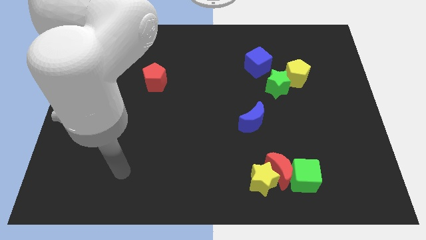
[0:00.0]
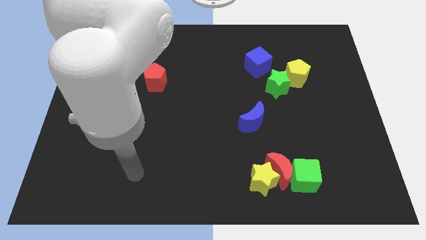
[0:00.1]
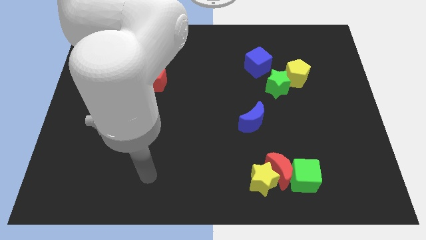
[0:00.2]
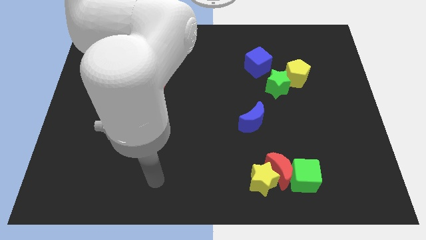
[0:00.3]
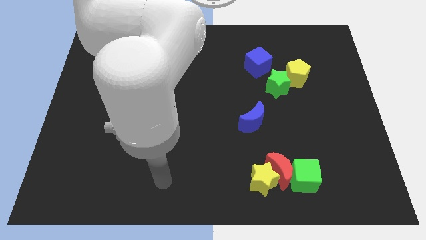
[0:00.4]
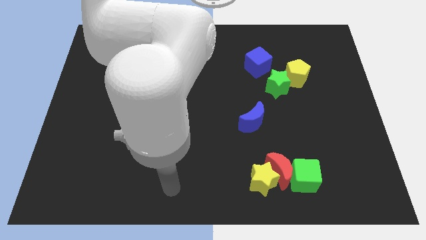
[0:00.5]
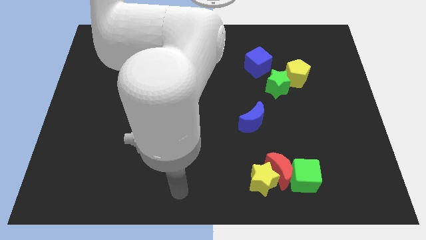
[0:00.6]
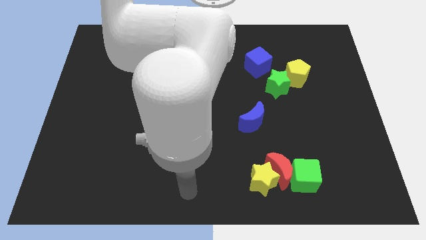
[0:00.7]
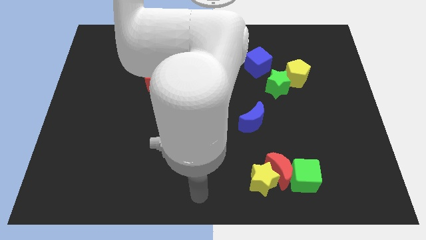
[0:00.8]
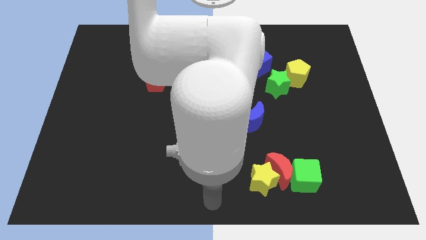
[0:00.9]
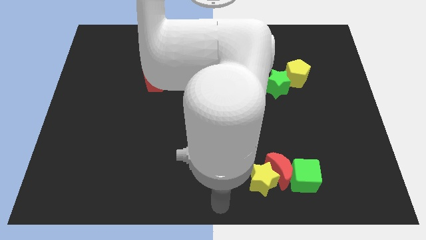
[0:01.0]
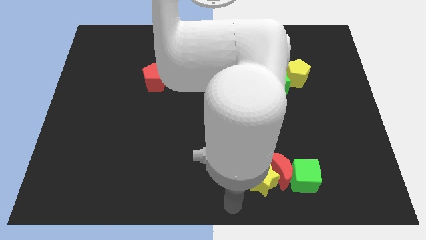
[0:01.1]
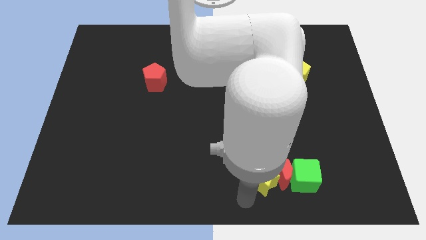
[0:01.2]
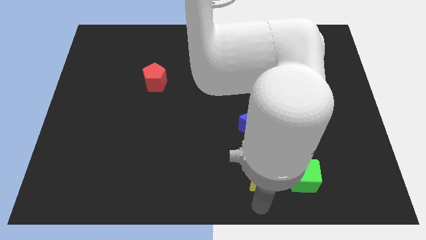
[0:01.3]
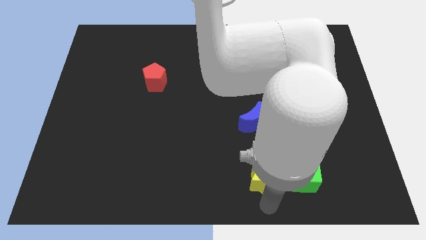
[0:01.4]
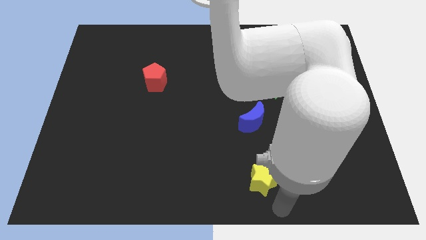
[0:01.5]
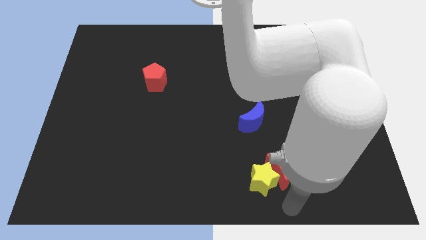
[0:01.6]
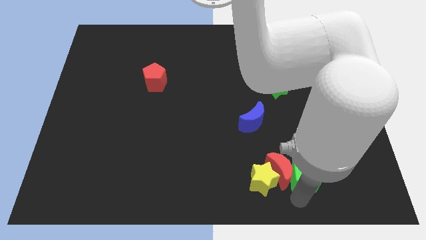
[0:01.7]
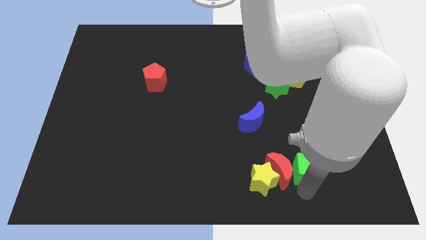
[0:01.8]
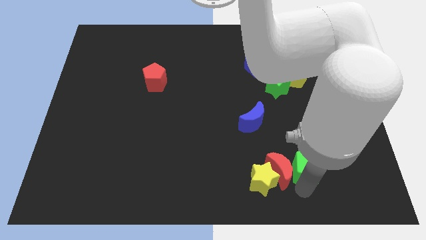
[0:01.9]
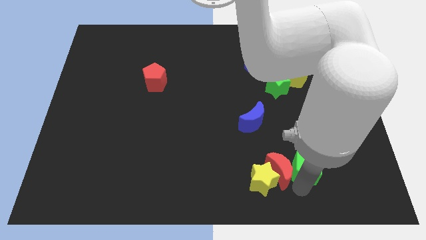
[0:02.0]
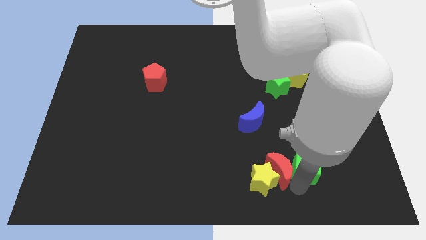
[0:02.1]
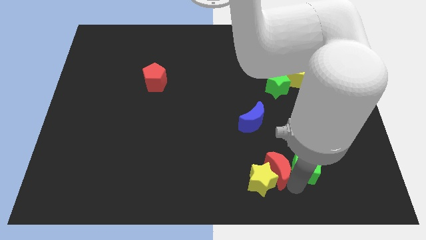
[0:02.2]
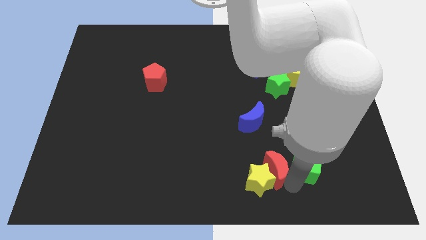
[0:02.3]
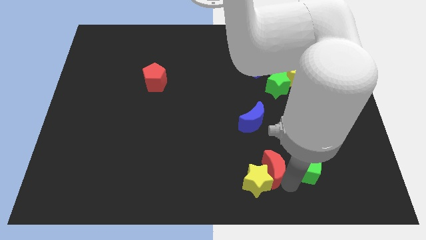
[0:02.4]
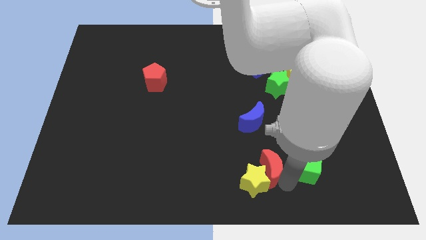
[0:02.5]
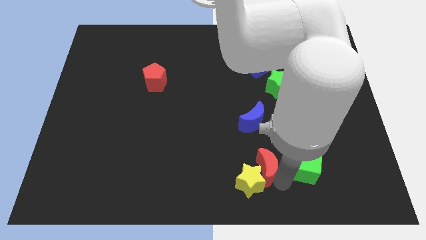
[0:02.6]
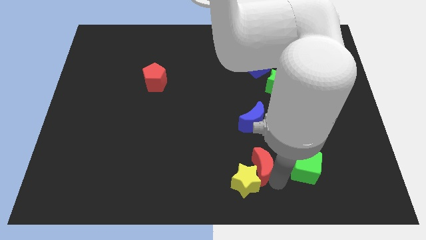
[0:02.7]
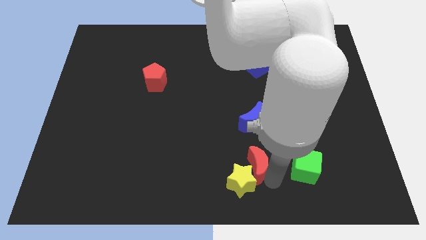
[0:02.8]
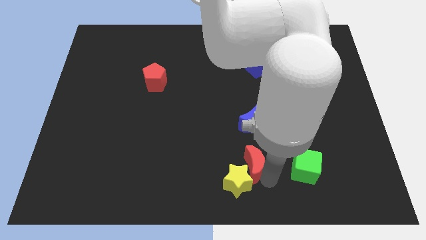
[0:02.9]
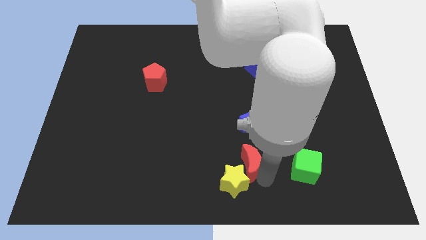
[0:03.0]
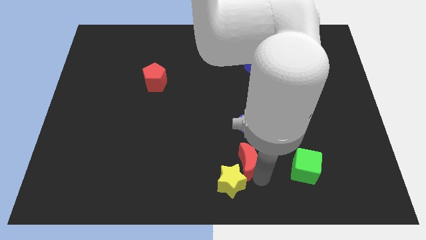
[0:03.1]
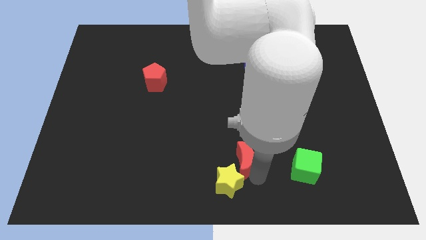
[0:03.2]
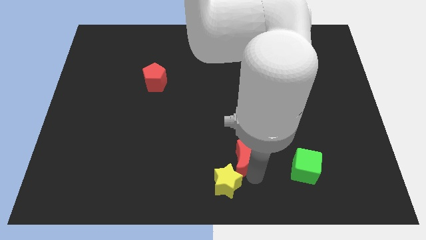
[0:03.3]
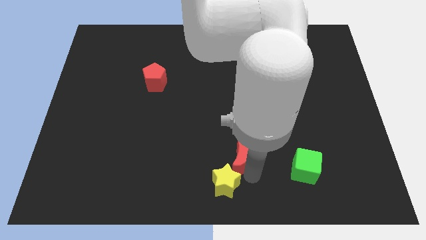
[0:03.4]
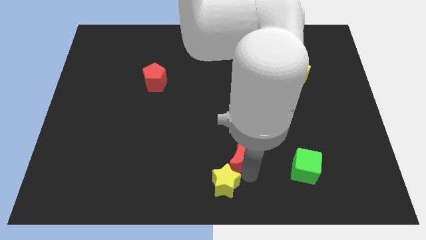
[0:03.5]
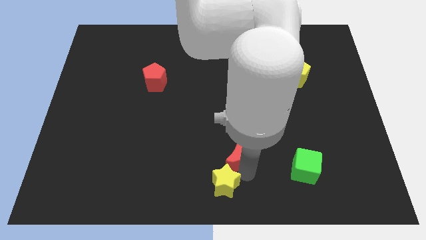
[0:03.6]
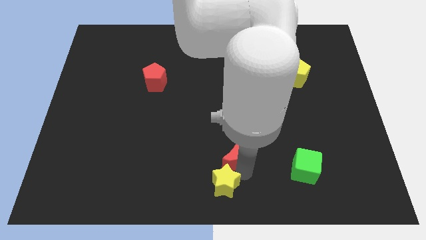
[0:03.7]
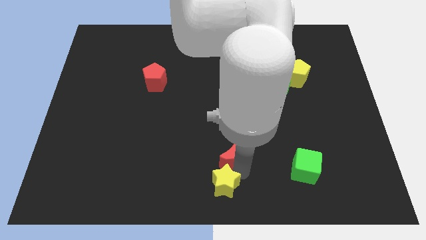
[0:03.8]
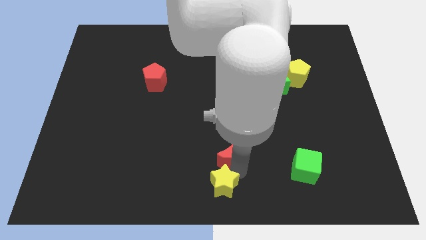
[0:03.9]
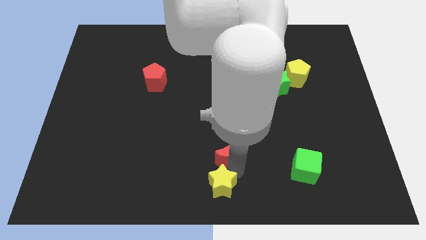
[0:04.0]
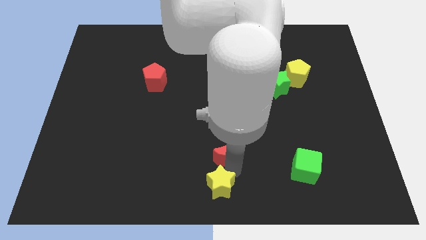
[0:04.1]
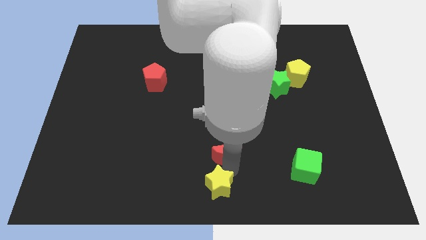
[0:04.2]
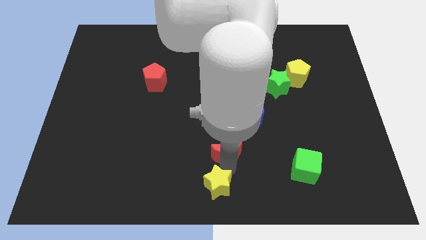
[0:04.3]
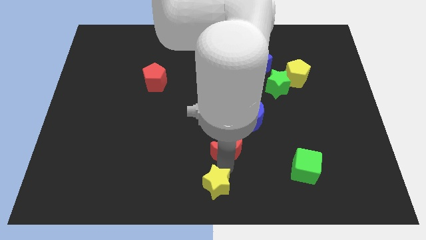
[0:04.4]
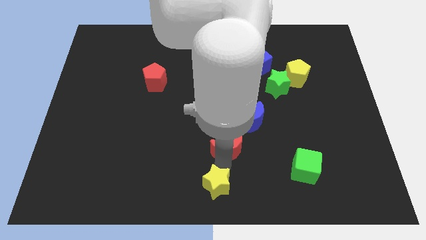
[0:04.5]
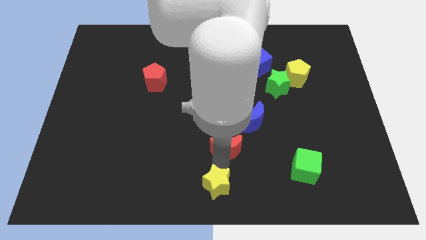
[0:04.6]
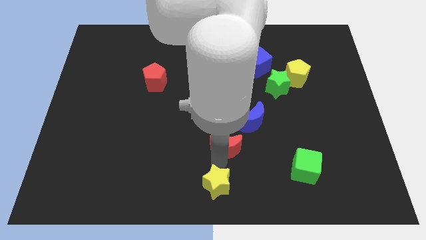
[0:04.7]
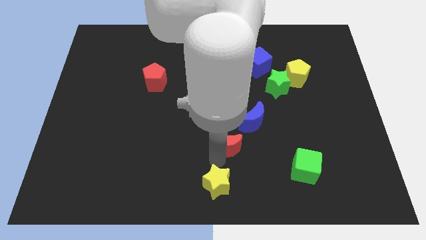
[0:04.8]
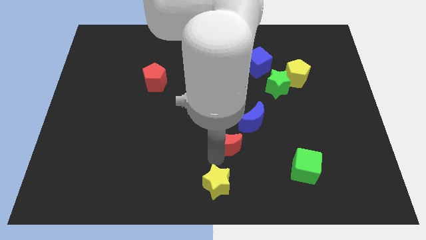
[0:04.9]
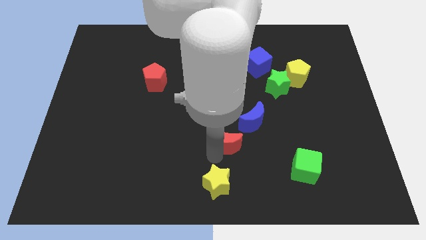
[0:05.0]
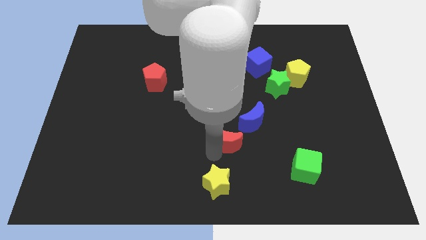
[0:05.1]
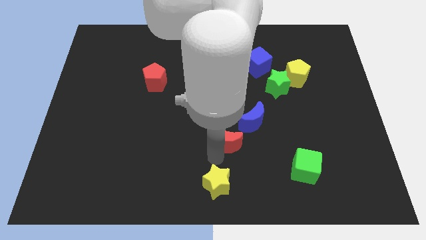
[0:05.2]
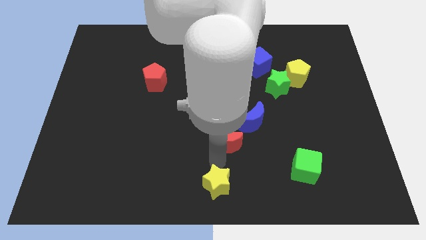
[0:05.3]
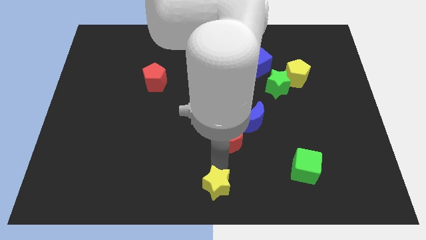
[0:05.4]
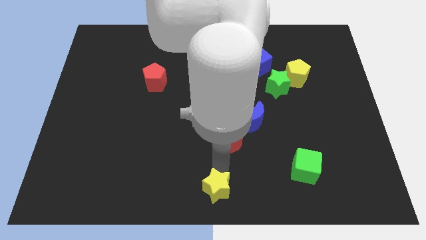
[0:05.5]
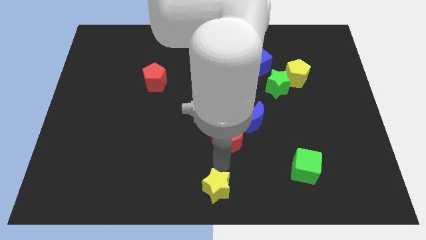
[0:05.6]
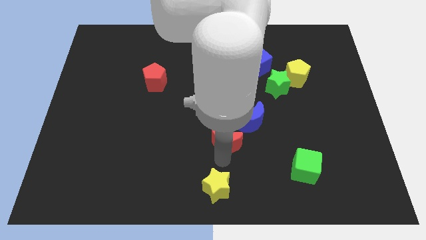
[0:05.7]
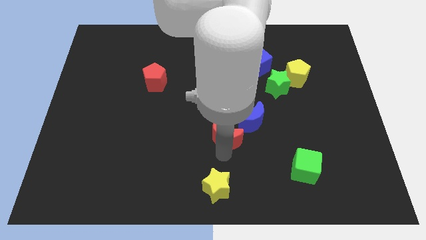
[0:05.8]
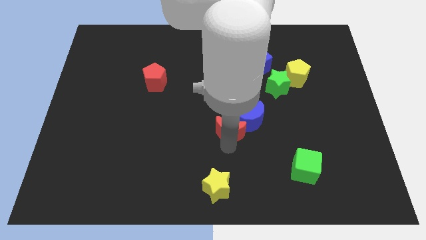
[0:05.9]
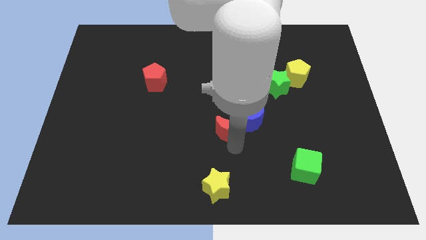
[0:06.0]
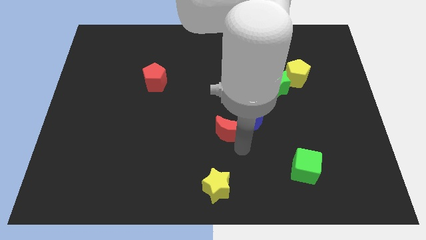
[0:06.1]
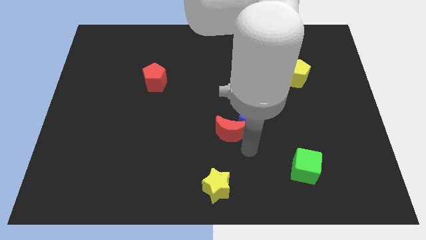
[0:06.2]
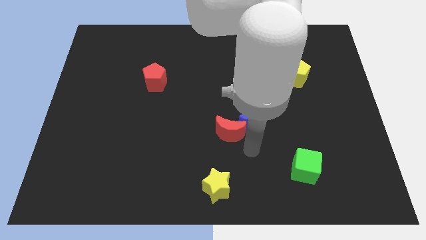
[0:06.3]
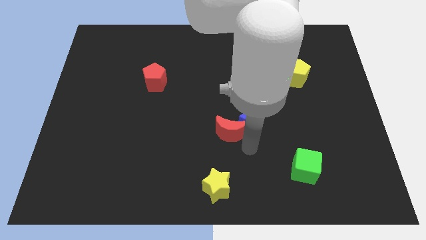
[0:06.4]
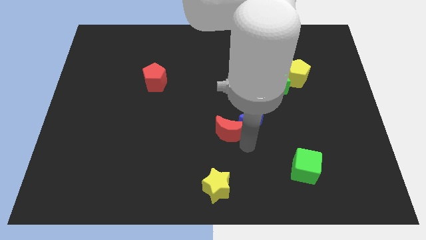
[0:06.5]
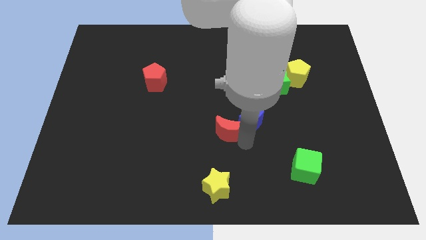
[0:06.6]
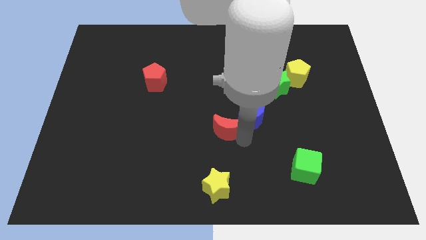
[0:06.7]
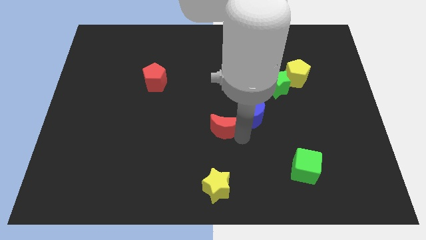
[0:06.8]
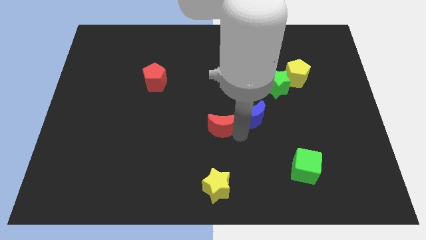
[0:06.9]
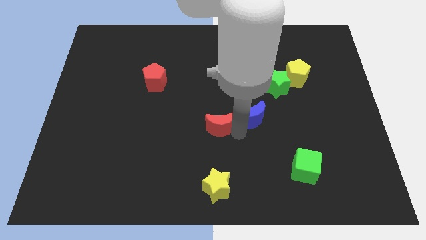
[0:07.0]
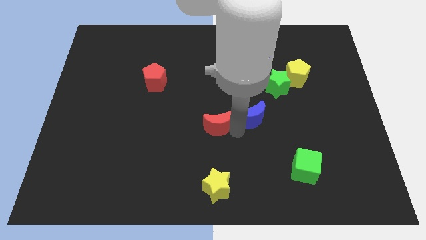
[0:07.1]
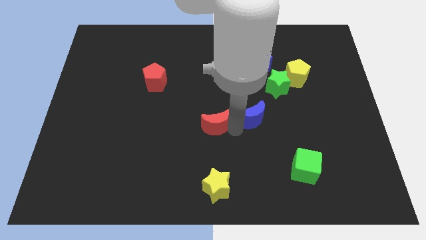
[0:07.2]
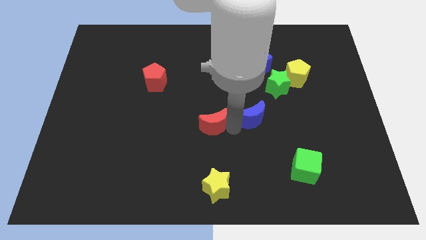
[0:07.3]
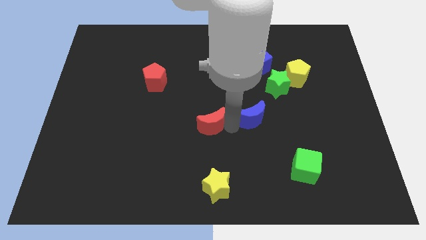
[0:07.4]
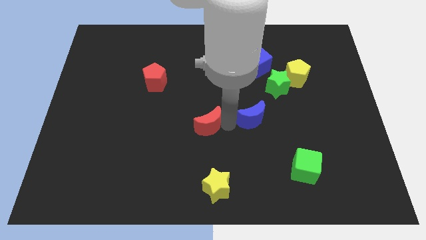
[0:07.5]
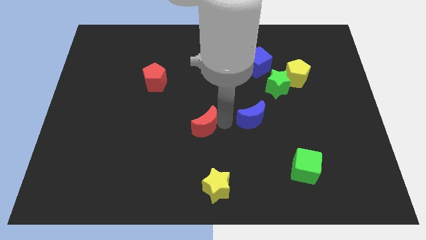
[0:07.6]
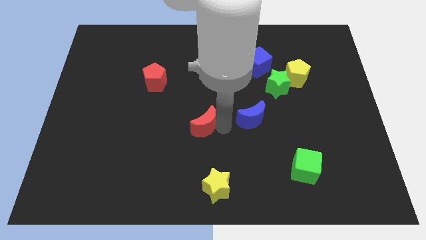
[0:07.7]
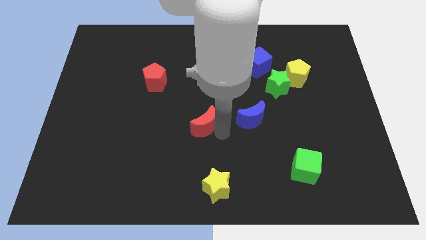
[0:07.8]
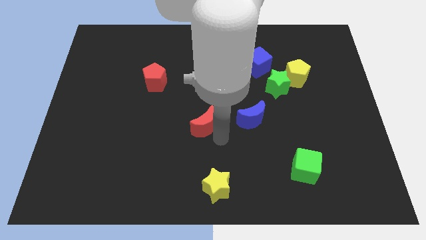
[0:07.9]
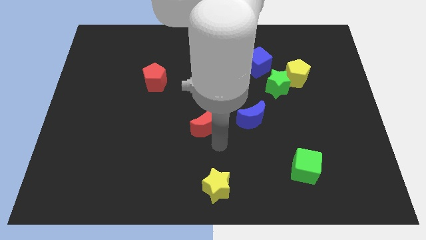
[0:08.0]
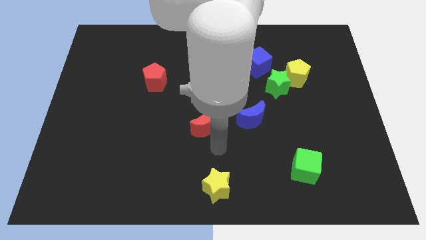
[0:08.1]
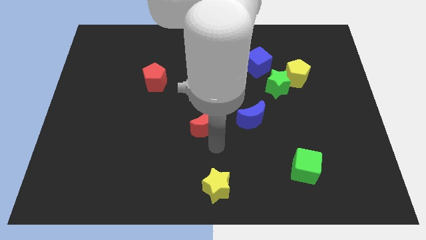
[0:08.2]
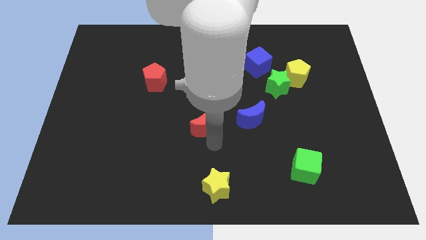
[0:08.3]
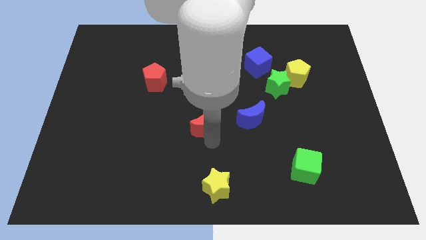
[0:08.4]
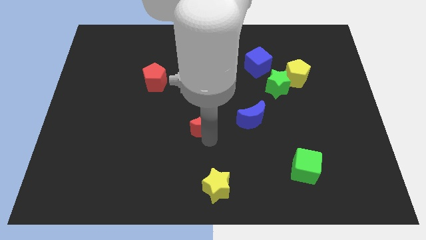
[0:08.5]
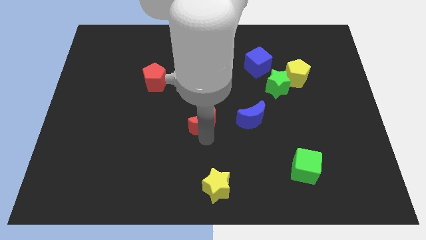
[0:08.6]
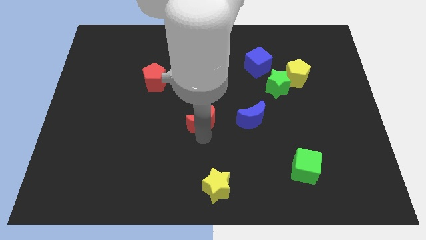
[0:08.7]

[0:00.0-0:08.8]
push the red moon upwards and to the left
